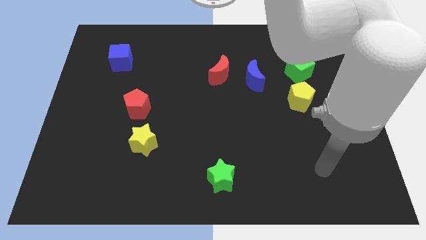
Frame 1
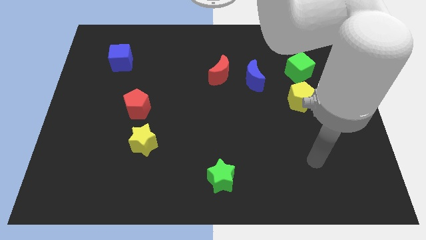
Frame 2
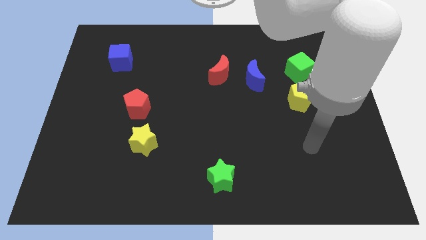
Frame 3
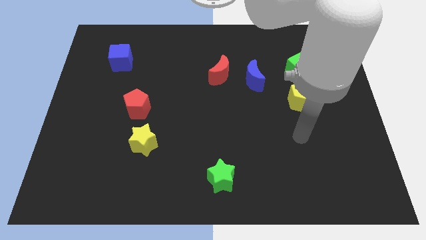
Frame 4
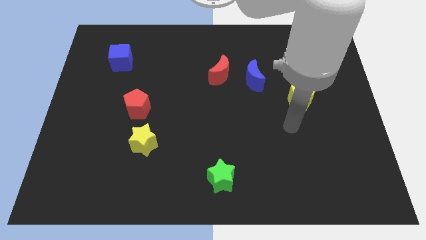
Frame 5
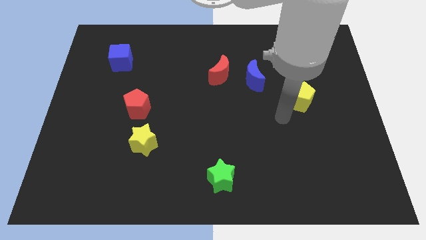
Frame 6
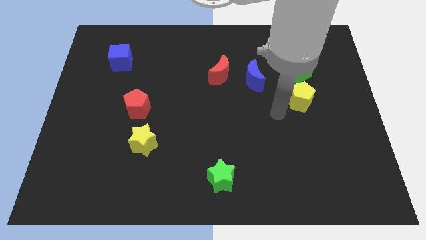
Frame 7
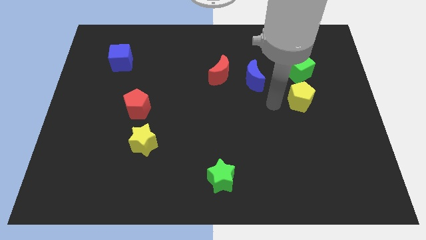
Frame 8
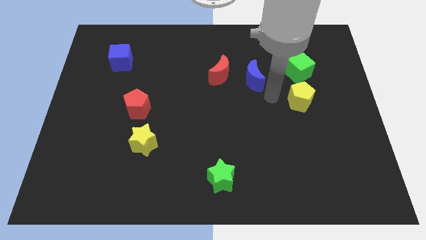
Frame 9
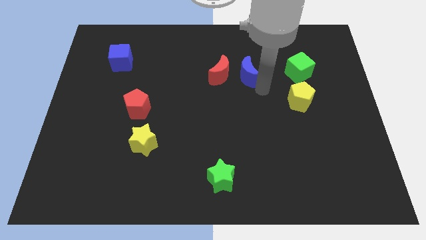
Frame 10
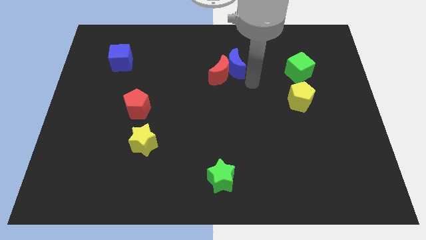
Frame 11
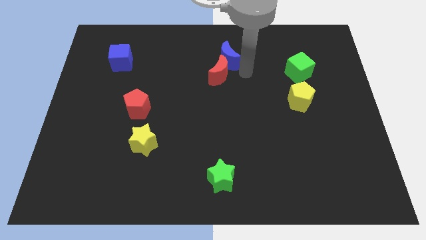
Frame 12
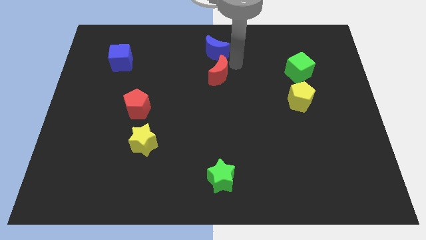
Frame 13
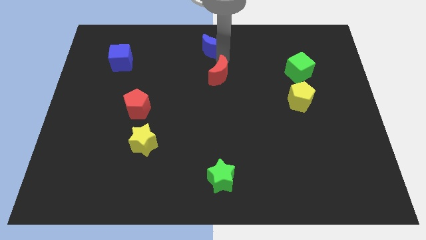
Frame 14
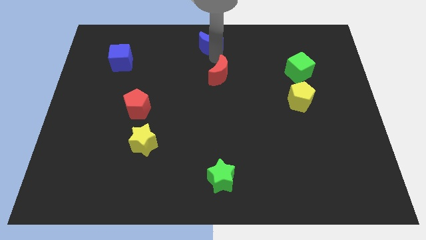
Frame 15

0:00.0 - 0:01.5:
pull the red moon apart from the blue moon

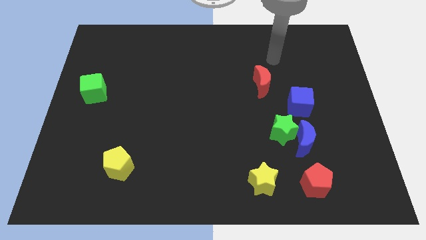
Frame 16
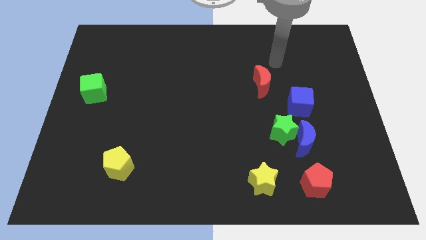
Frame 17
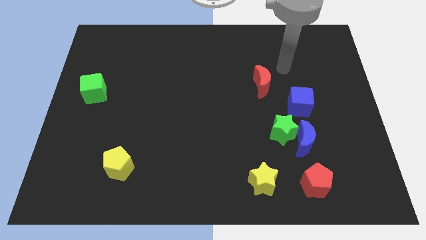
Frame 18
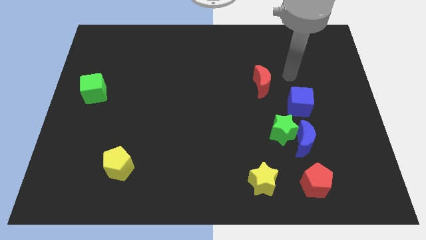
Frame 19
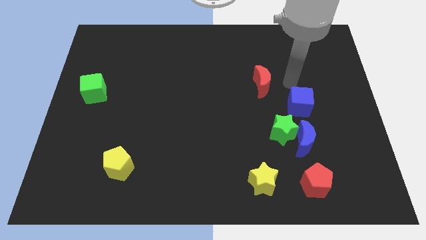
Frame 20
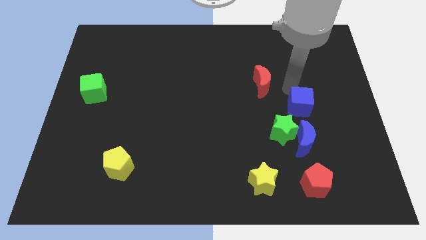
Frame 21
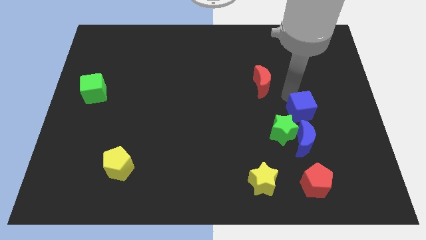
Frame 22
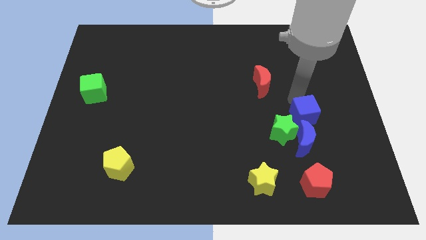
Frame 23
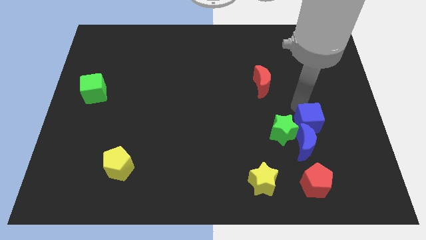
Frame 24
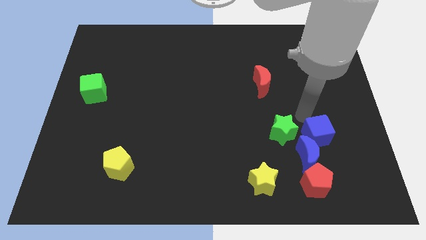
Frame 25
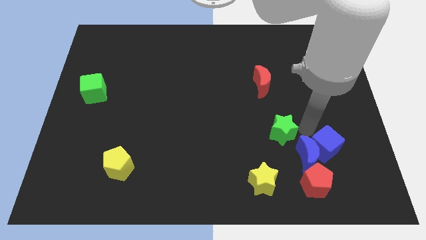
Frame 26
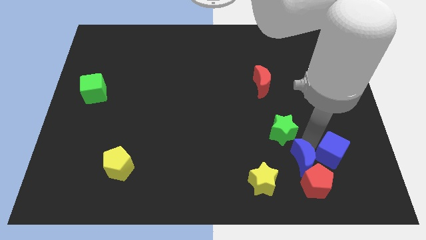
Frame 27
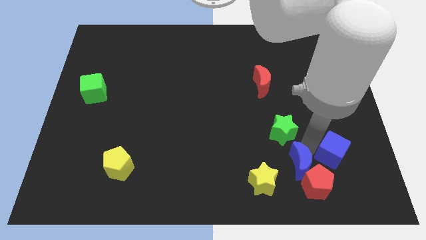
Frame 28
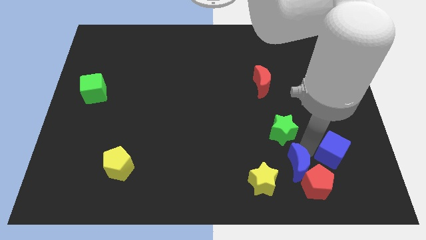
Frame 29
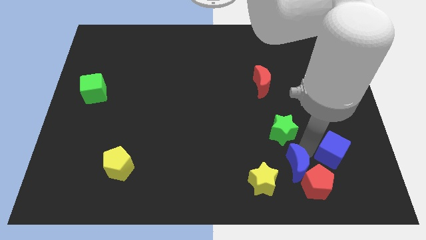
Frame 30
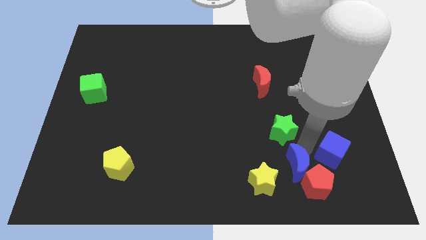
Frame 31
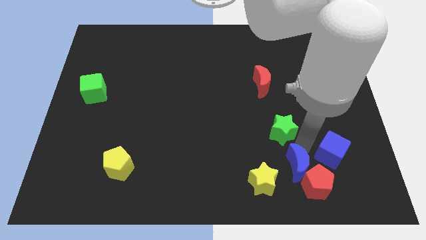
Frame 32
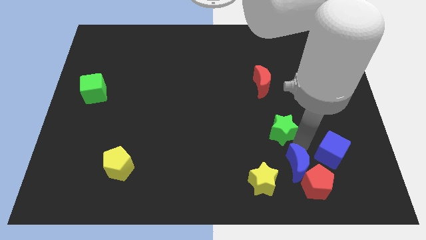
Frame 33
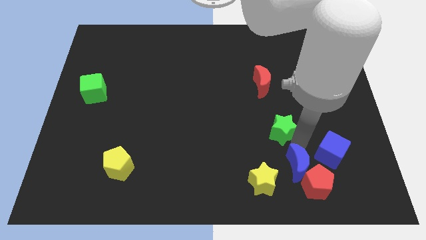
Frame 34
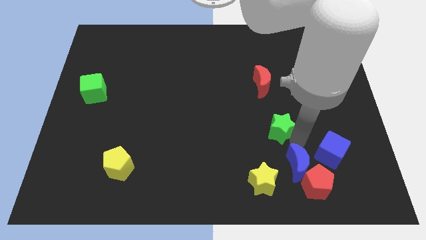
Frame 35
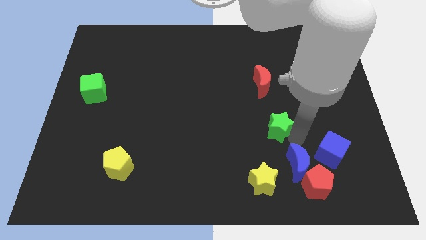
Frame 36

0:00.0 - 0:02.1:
move the green star away from the blue moon and blue cube

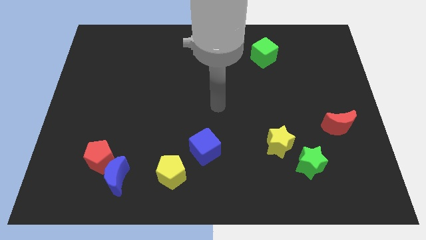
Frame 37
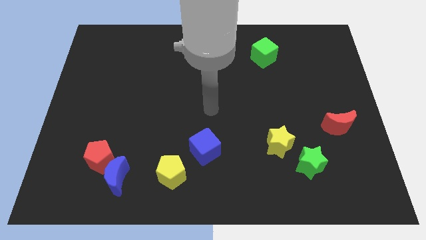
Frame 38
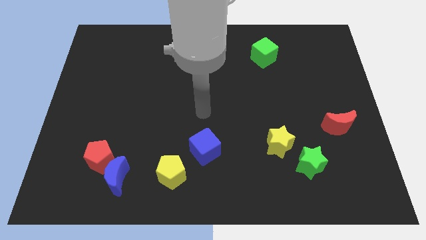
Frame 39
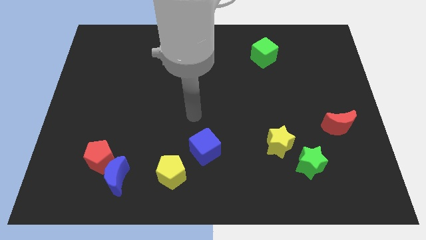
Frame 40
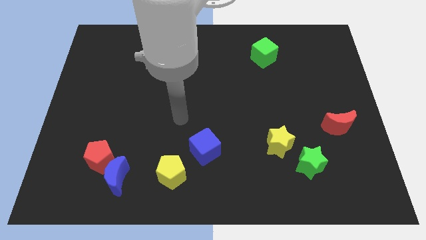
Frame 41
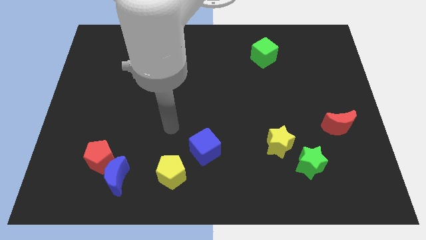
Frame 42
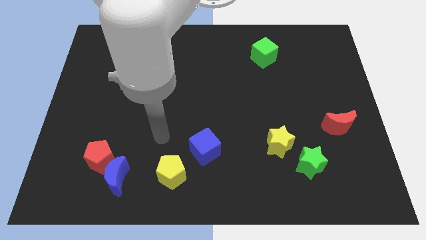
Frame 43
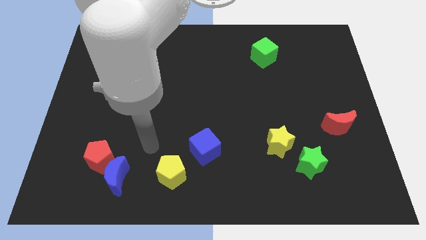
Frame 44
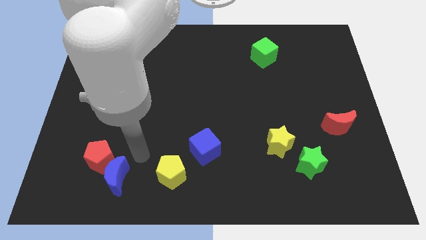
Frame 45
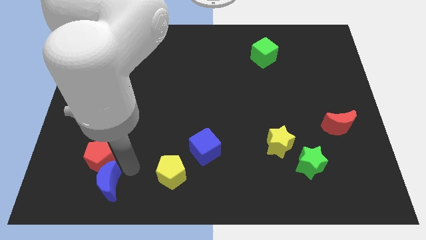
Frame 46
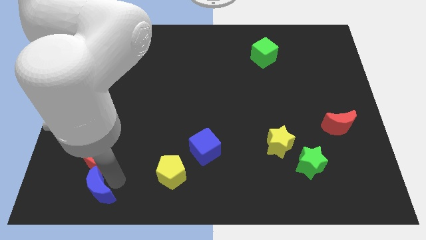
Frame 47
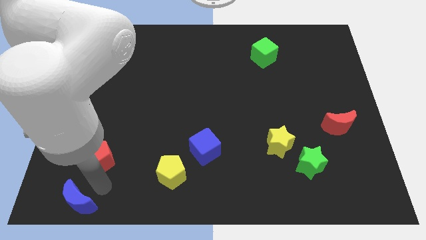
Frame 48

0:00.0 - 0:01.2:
move the red pentagon away from the blue moon

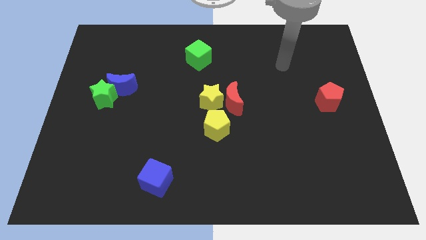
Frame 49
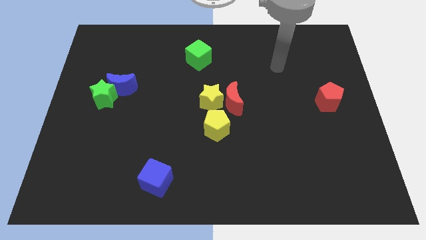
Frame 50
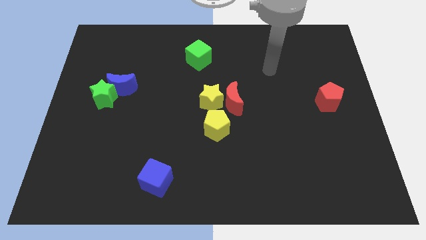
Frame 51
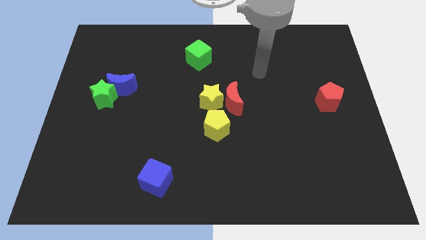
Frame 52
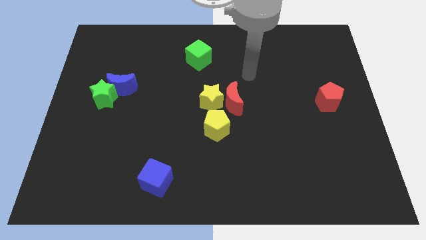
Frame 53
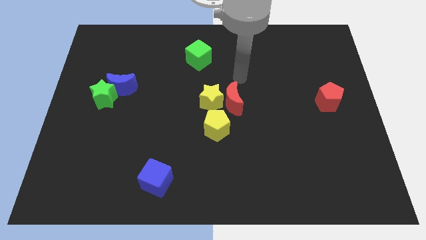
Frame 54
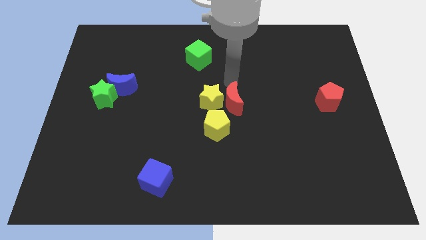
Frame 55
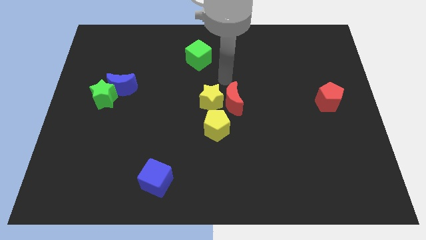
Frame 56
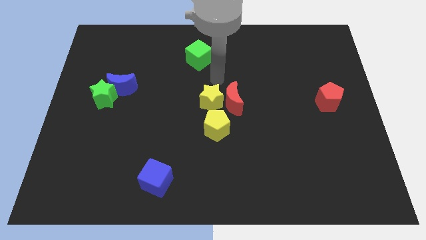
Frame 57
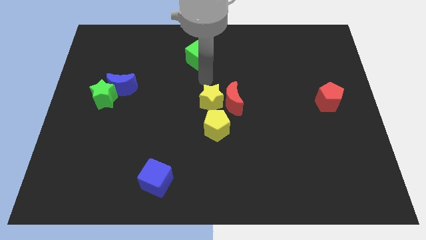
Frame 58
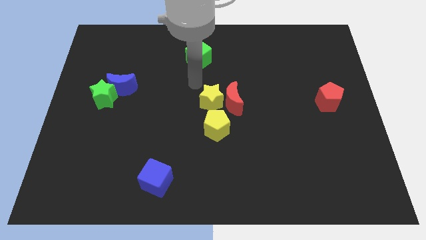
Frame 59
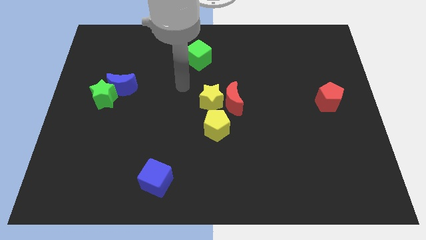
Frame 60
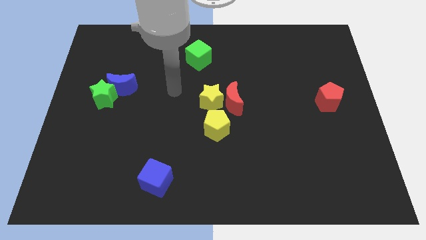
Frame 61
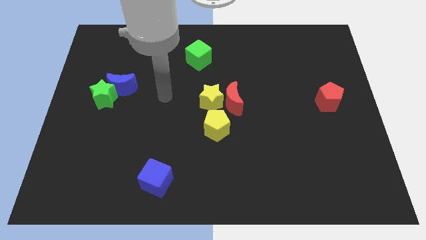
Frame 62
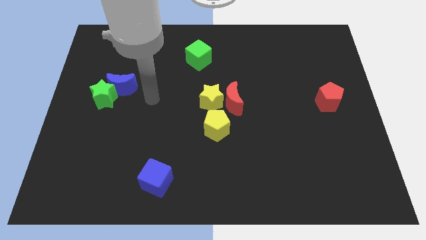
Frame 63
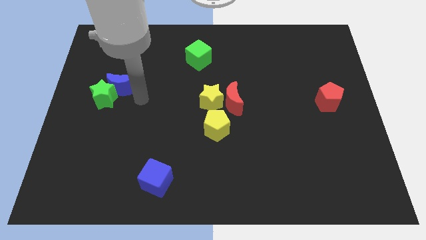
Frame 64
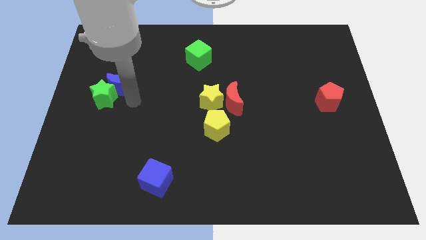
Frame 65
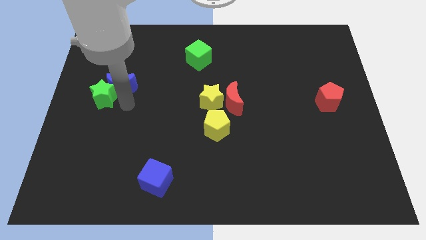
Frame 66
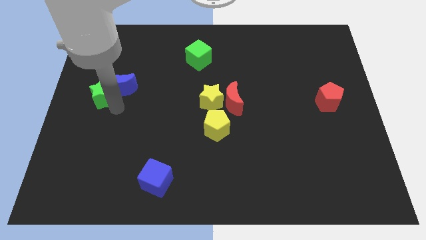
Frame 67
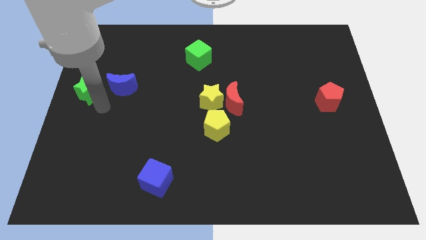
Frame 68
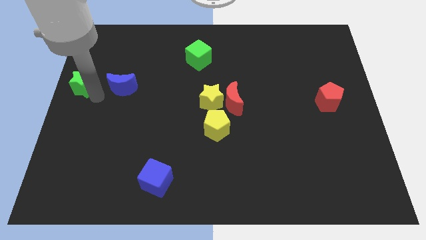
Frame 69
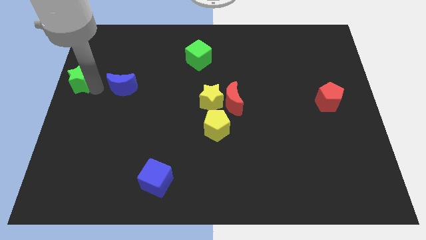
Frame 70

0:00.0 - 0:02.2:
pull the blue moon apart from the green star

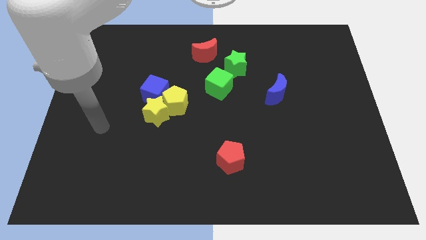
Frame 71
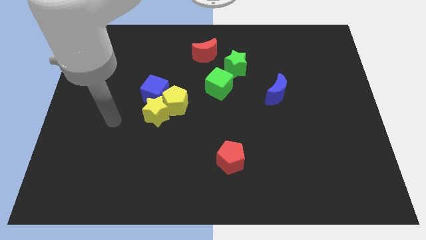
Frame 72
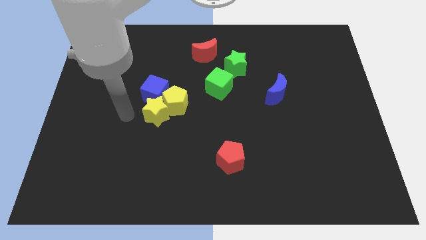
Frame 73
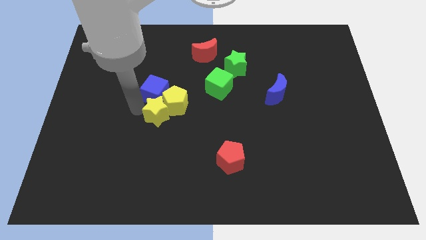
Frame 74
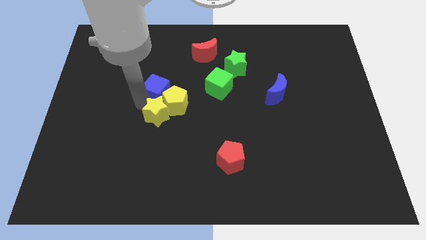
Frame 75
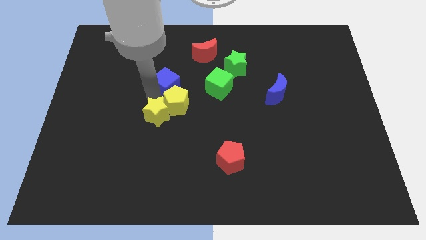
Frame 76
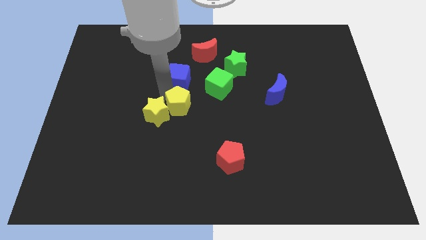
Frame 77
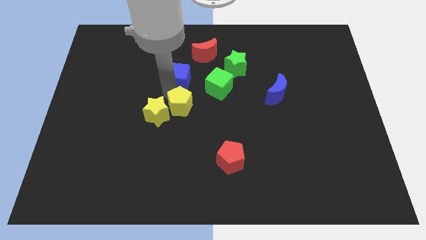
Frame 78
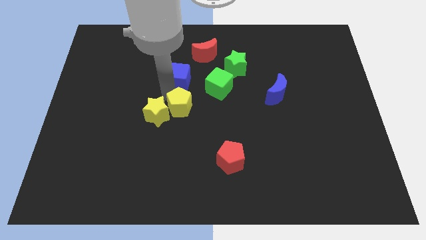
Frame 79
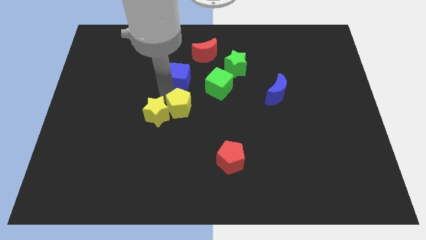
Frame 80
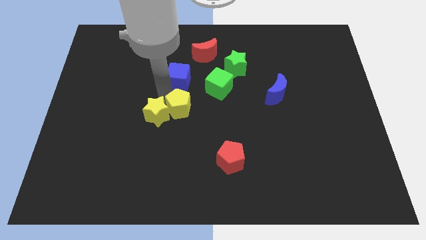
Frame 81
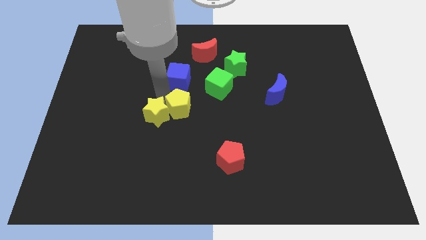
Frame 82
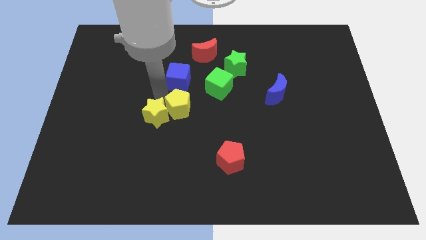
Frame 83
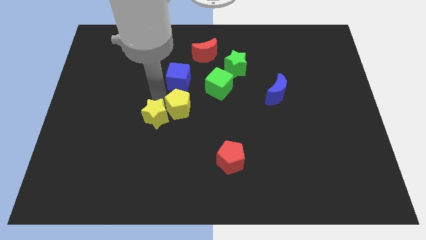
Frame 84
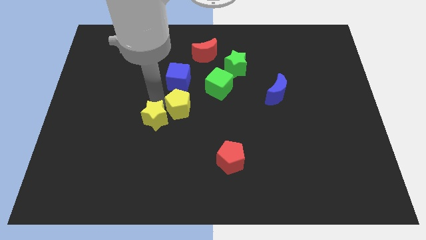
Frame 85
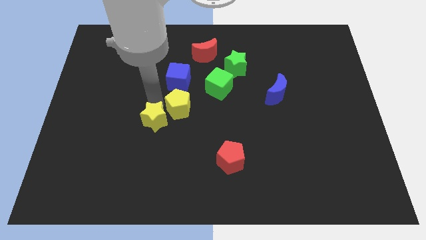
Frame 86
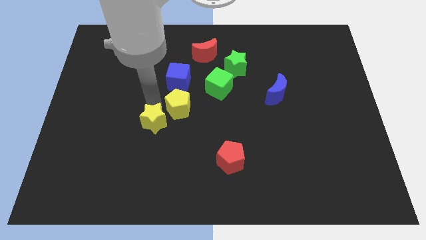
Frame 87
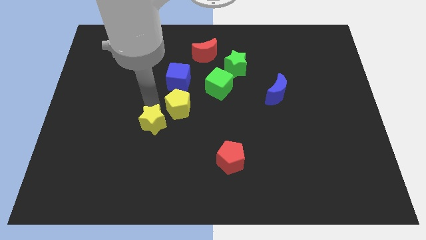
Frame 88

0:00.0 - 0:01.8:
move the yellow star away from the yellow pentagon and blue cube

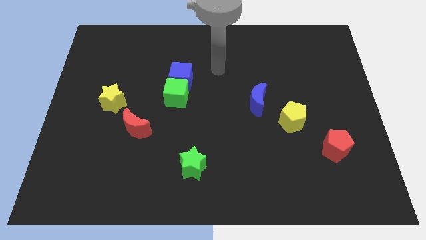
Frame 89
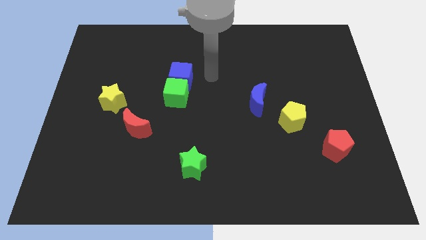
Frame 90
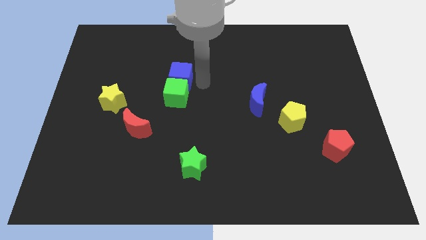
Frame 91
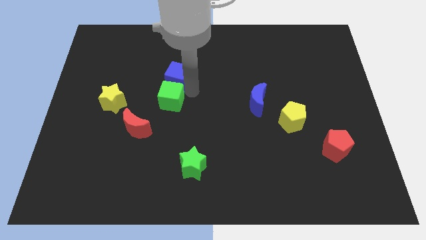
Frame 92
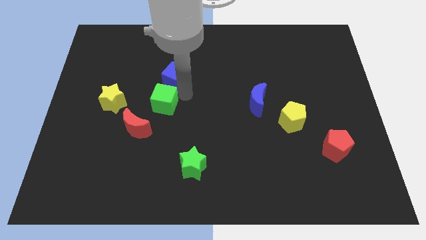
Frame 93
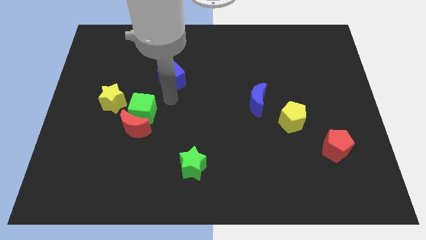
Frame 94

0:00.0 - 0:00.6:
move the blue cube away from the green cube
